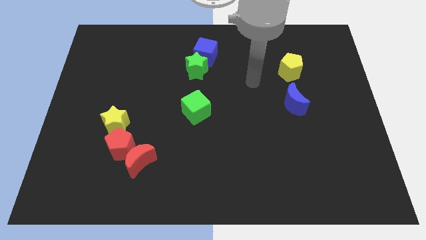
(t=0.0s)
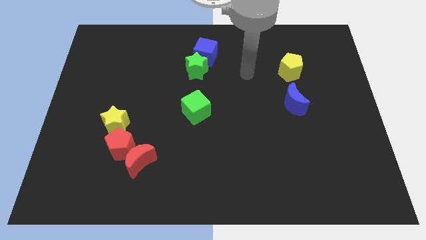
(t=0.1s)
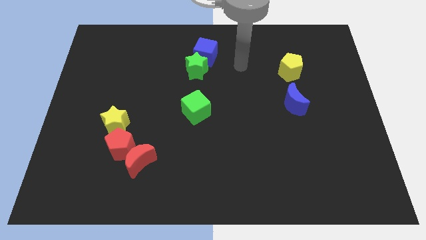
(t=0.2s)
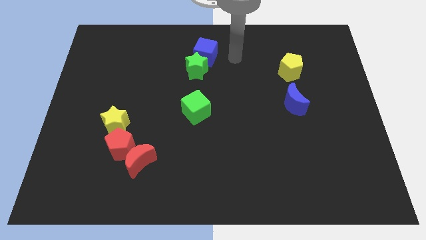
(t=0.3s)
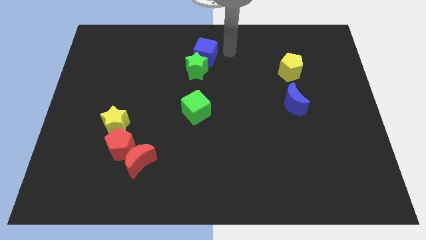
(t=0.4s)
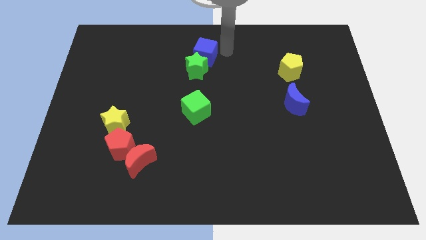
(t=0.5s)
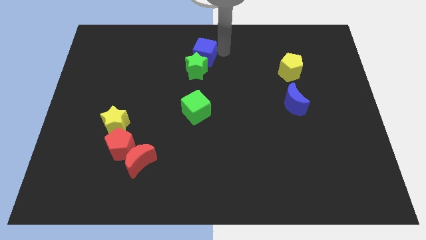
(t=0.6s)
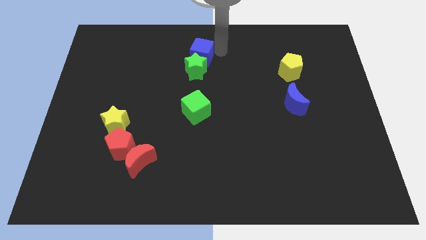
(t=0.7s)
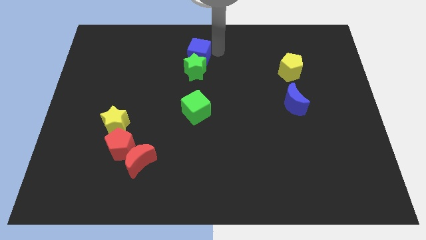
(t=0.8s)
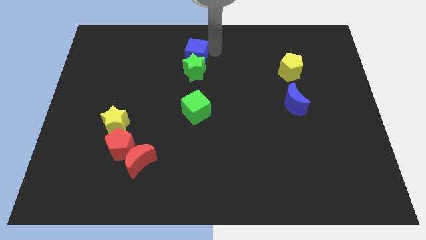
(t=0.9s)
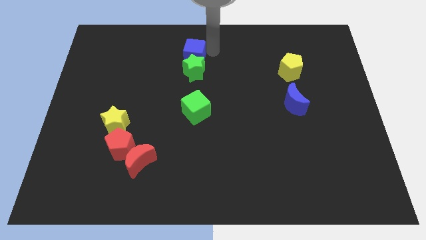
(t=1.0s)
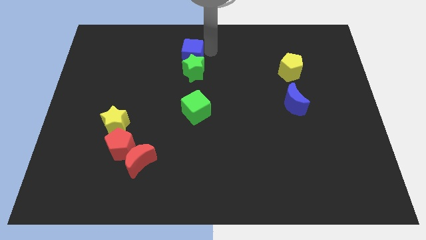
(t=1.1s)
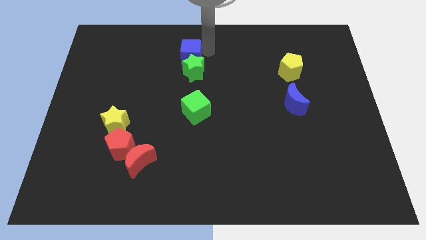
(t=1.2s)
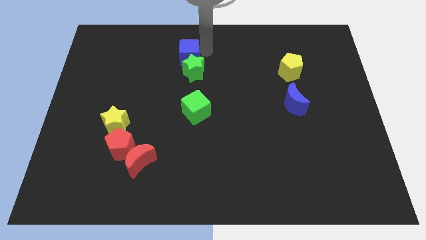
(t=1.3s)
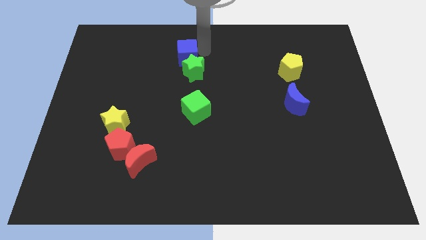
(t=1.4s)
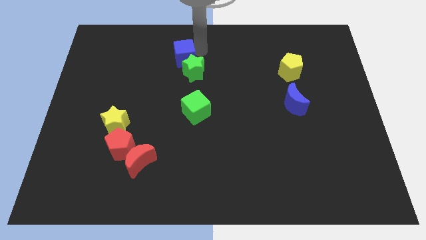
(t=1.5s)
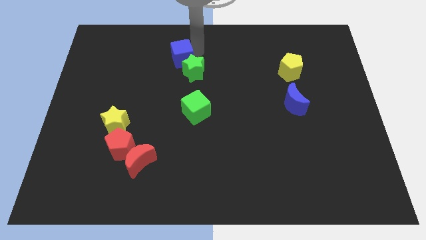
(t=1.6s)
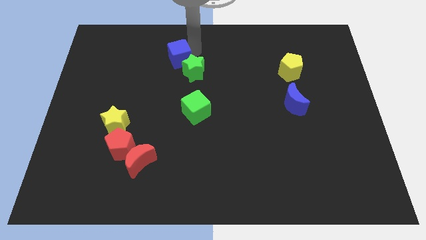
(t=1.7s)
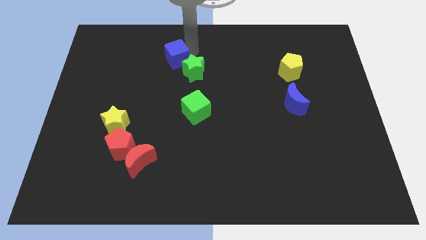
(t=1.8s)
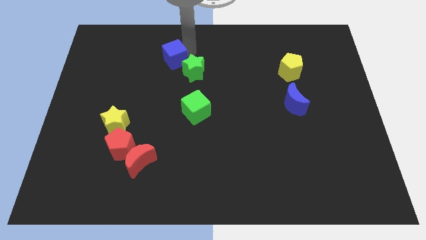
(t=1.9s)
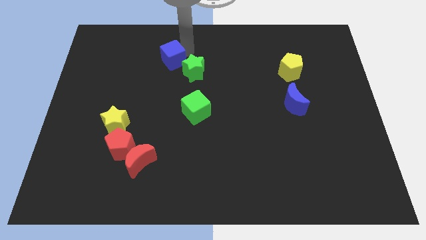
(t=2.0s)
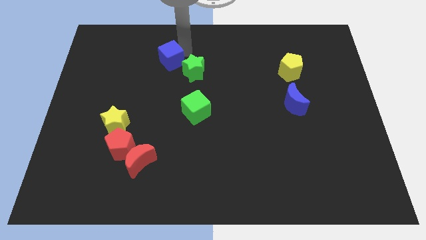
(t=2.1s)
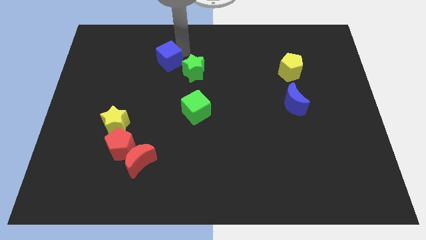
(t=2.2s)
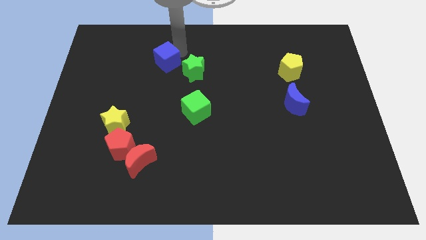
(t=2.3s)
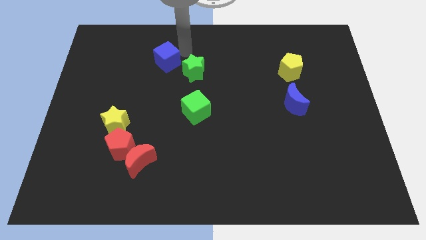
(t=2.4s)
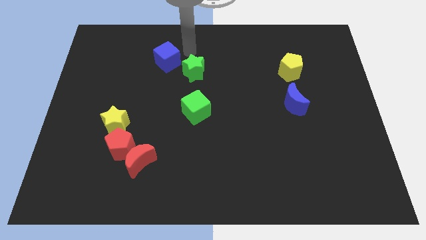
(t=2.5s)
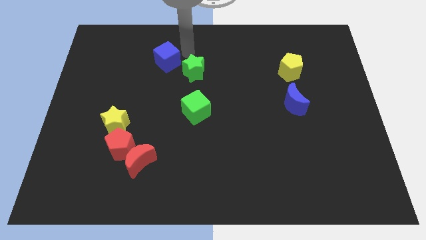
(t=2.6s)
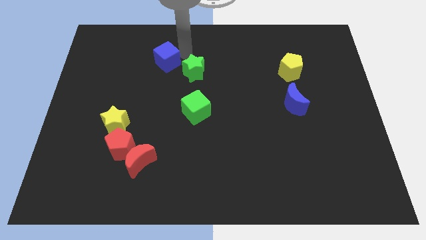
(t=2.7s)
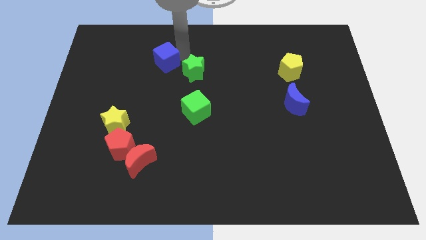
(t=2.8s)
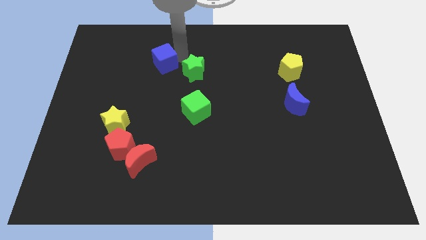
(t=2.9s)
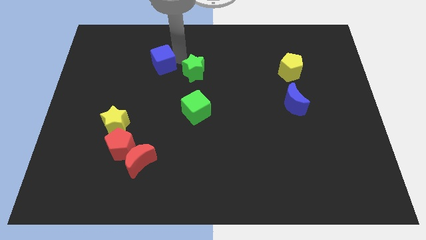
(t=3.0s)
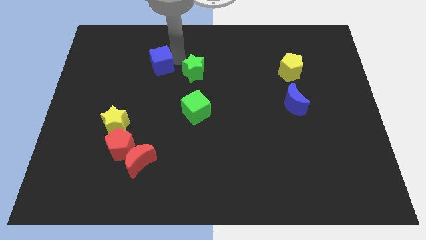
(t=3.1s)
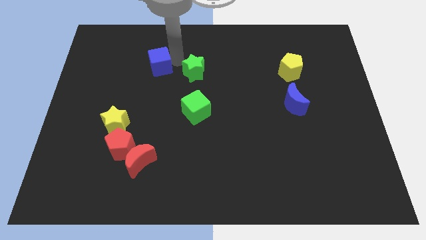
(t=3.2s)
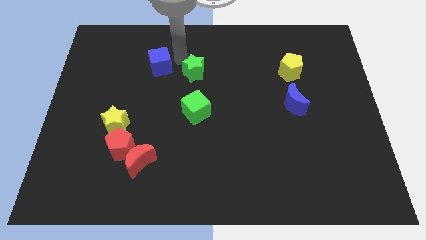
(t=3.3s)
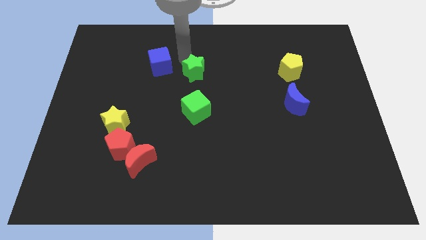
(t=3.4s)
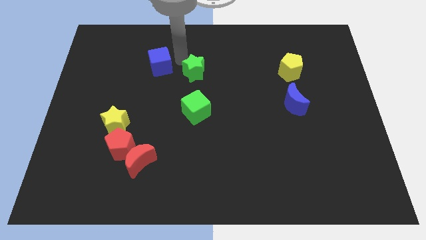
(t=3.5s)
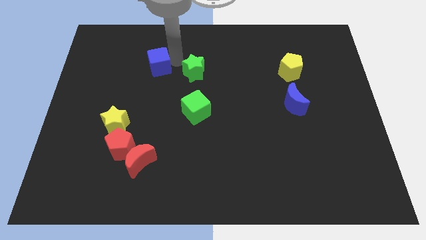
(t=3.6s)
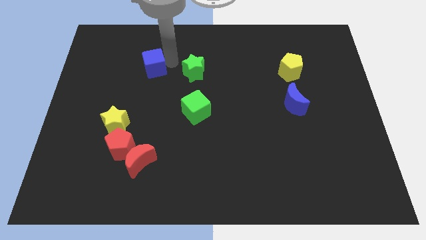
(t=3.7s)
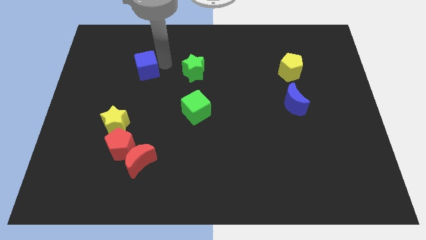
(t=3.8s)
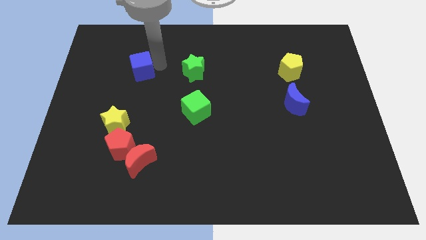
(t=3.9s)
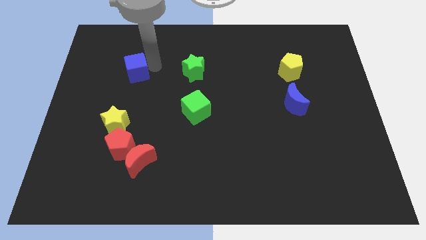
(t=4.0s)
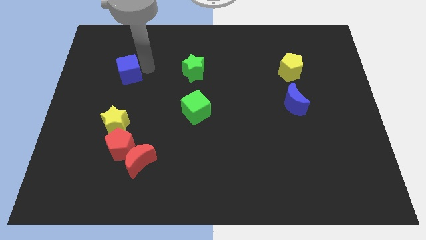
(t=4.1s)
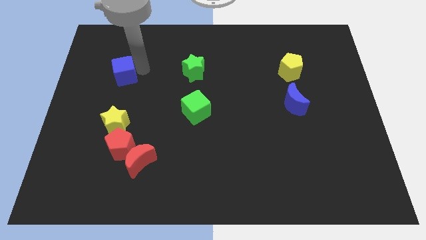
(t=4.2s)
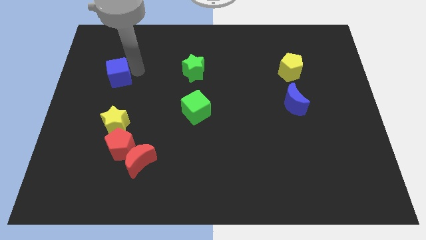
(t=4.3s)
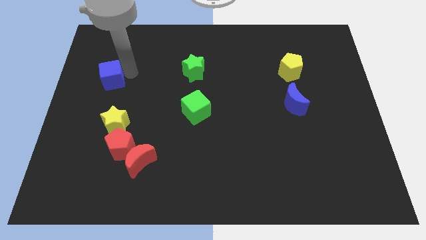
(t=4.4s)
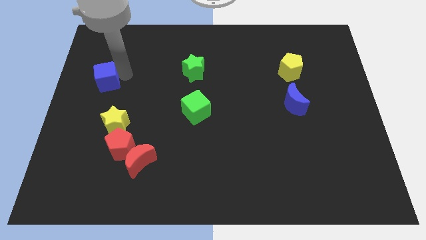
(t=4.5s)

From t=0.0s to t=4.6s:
slide the blue cube to the left side of the board

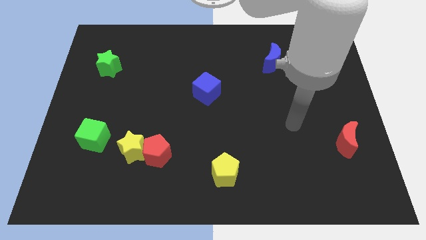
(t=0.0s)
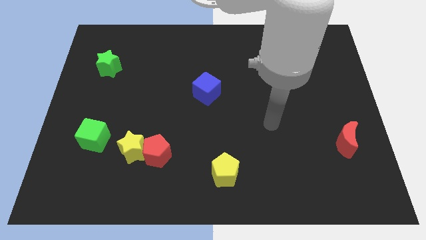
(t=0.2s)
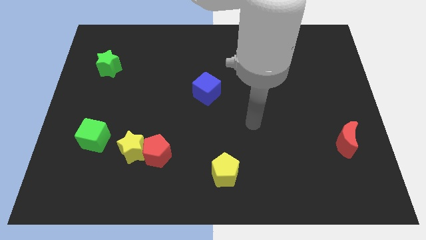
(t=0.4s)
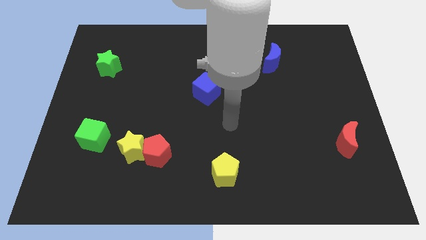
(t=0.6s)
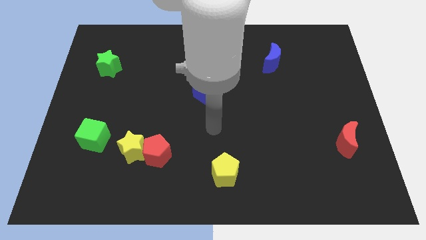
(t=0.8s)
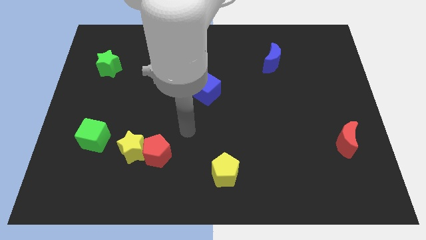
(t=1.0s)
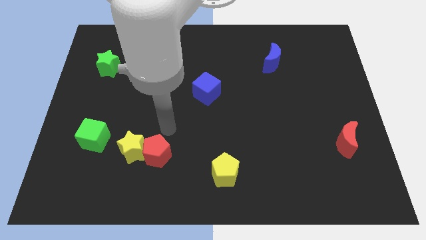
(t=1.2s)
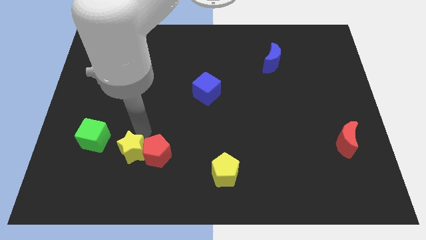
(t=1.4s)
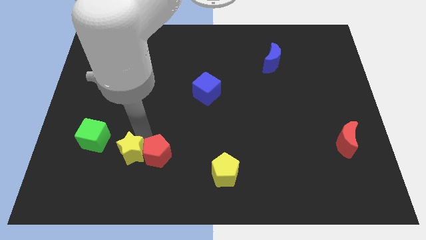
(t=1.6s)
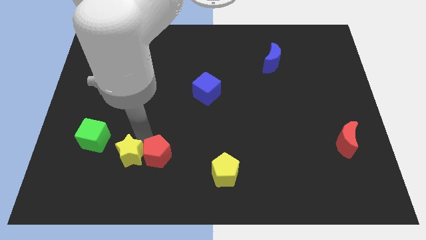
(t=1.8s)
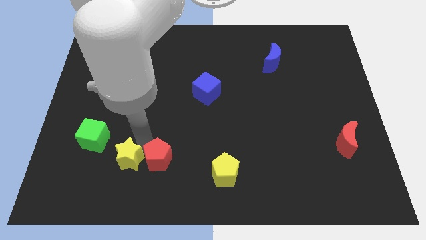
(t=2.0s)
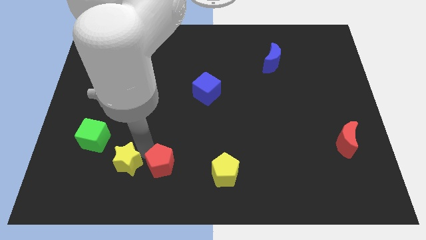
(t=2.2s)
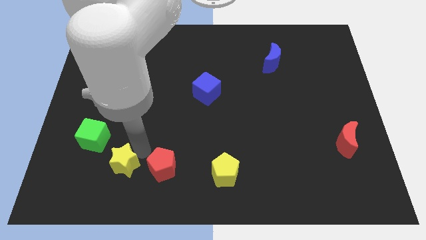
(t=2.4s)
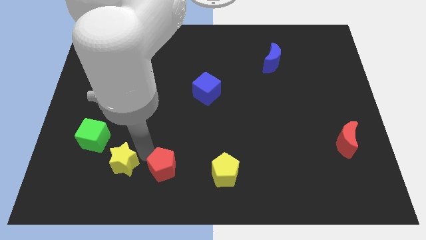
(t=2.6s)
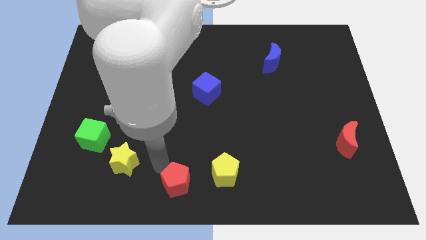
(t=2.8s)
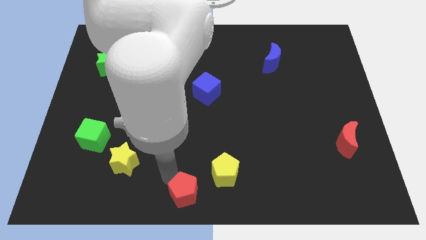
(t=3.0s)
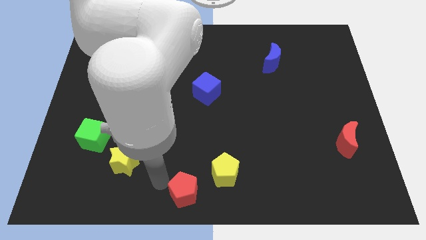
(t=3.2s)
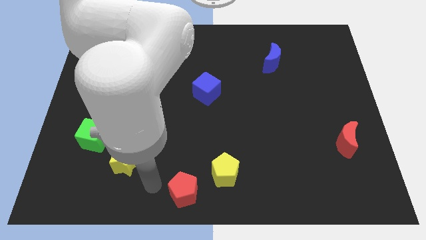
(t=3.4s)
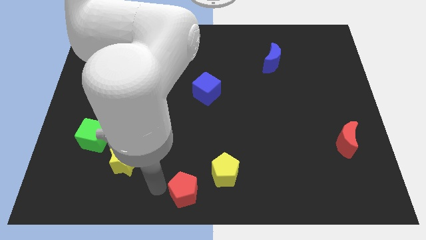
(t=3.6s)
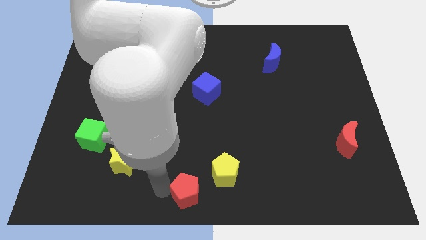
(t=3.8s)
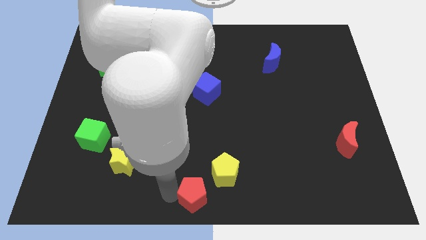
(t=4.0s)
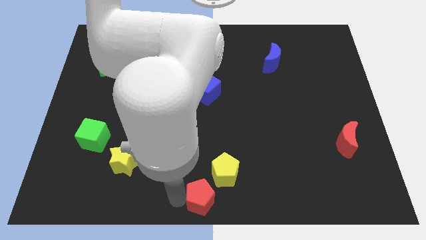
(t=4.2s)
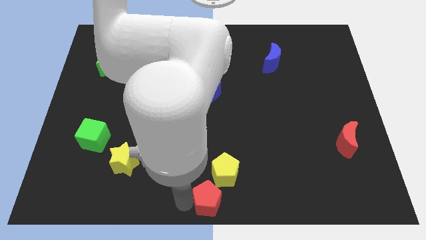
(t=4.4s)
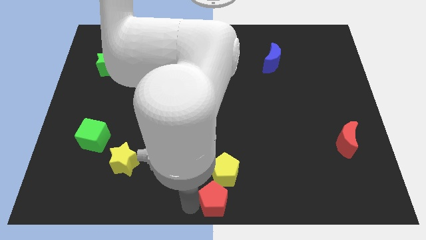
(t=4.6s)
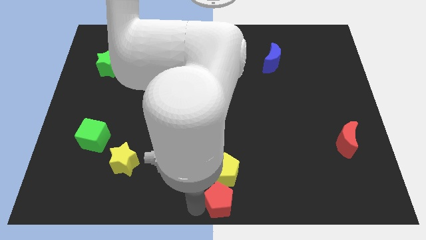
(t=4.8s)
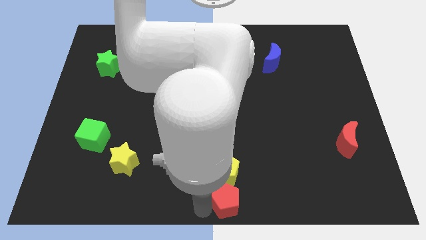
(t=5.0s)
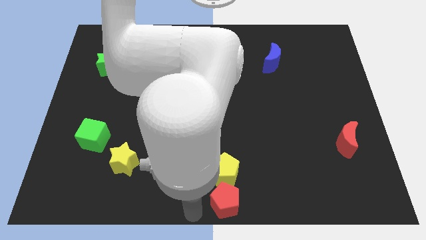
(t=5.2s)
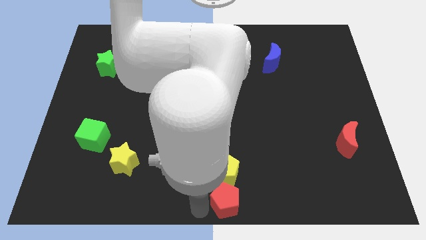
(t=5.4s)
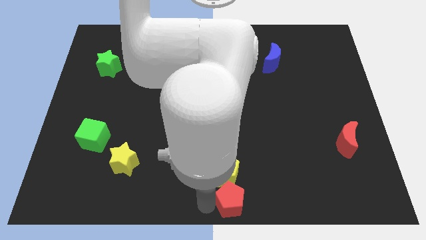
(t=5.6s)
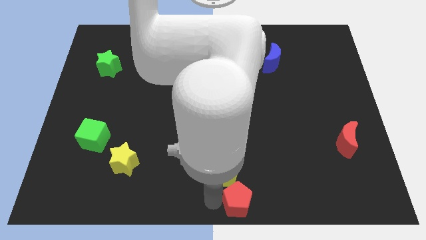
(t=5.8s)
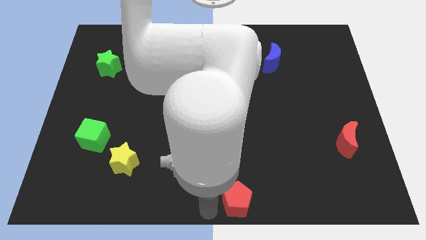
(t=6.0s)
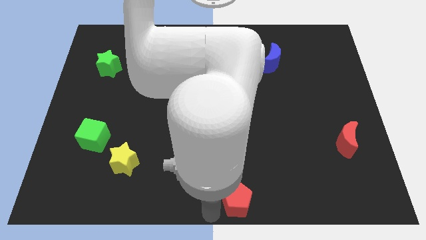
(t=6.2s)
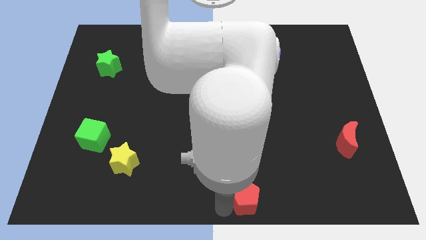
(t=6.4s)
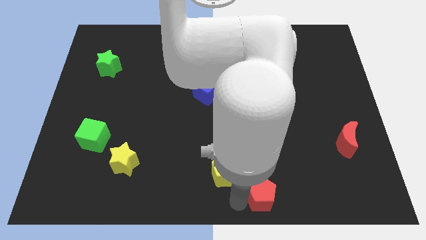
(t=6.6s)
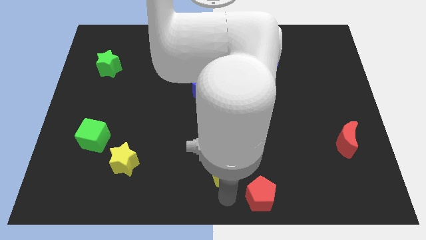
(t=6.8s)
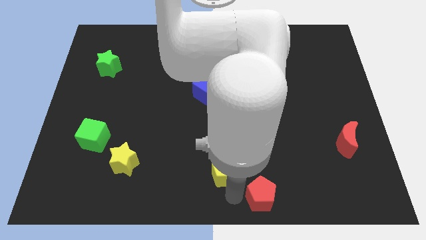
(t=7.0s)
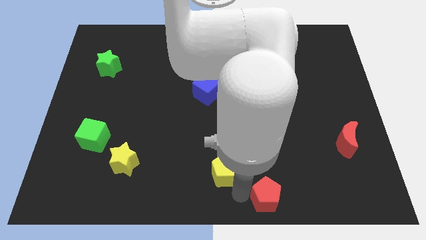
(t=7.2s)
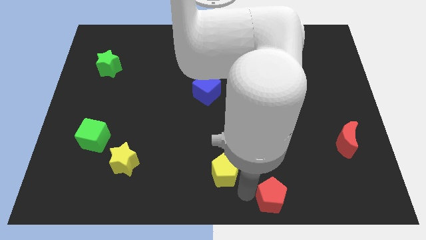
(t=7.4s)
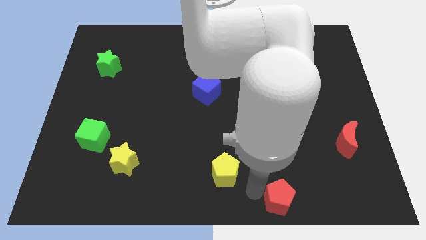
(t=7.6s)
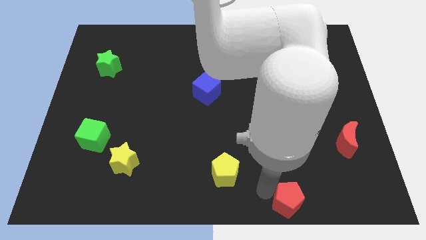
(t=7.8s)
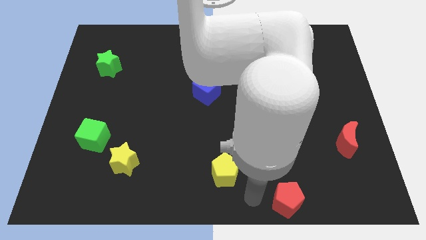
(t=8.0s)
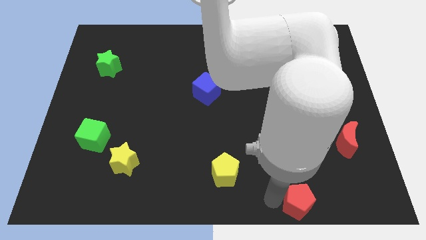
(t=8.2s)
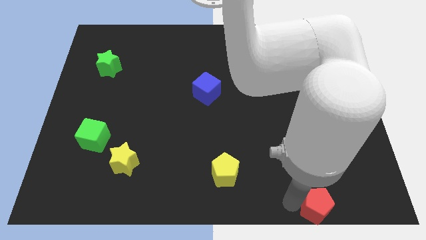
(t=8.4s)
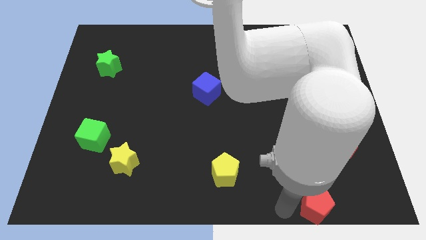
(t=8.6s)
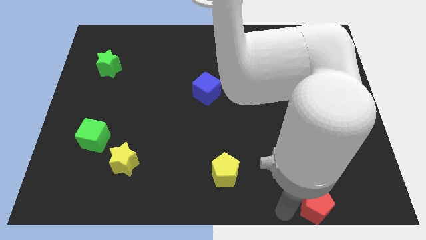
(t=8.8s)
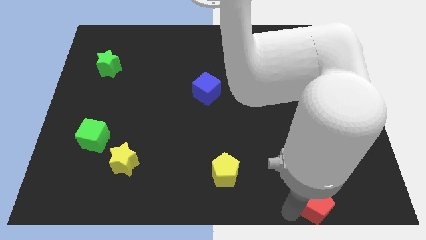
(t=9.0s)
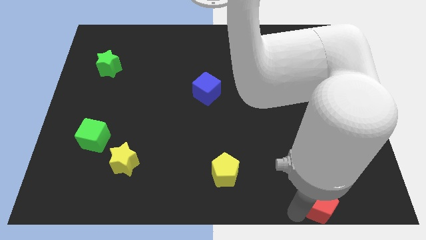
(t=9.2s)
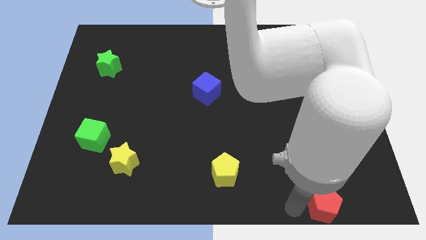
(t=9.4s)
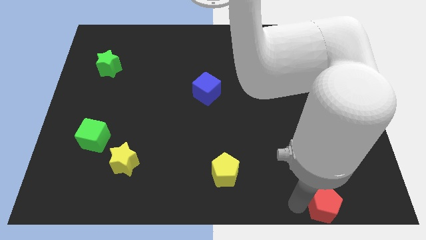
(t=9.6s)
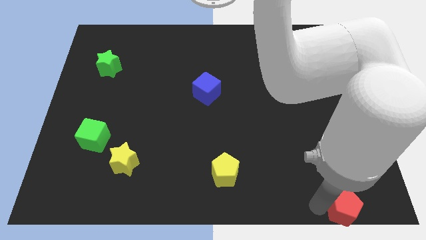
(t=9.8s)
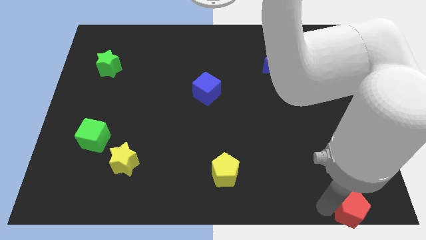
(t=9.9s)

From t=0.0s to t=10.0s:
put the red pentagon to the bottom right corner
